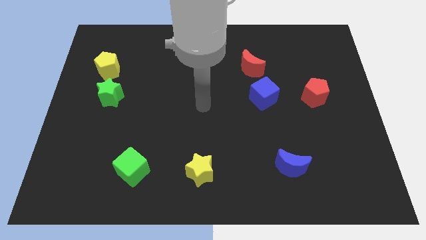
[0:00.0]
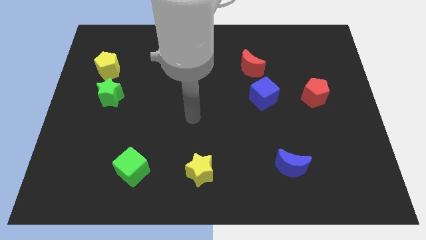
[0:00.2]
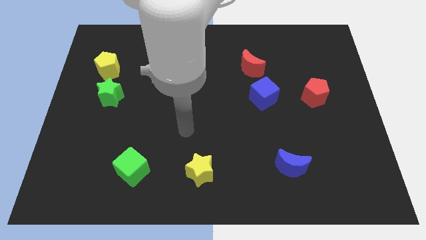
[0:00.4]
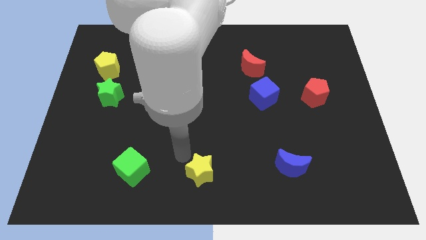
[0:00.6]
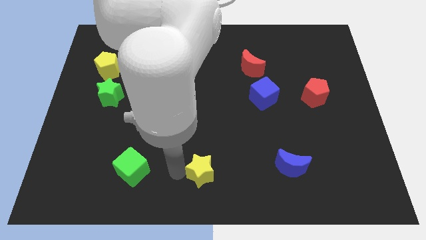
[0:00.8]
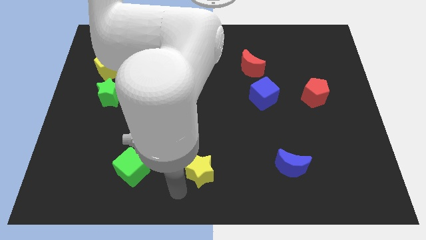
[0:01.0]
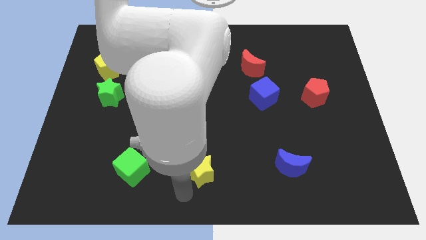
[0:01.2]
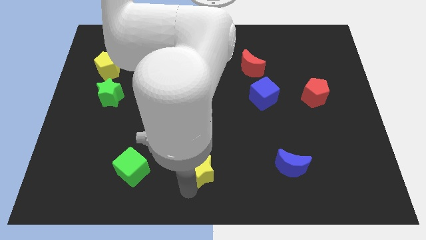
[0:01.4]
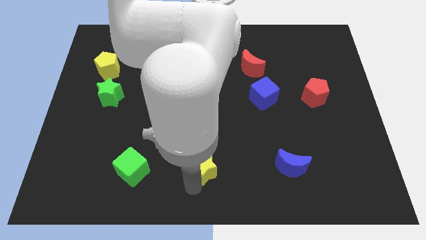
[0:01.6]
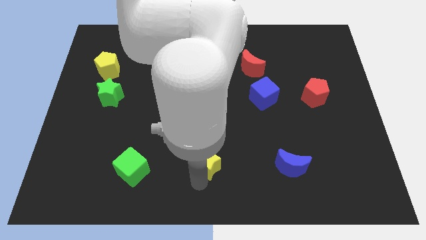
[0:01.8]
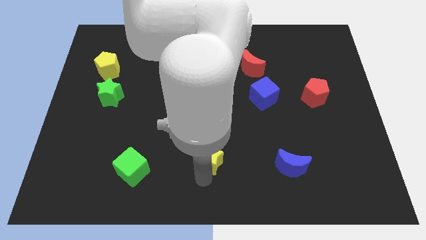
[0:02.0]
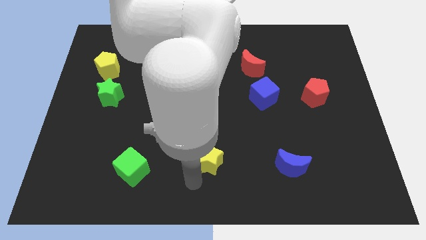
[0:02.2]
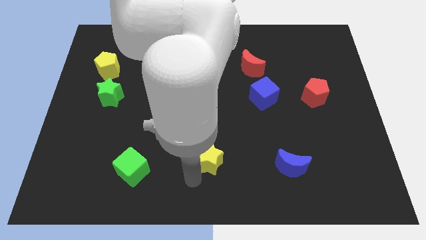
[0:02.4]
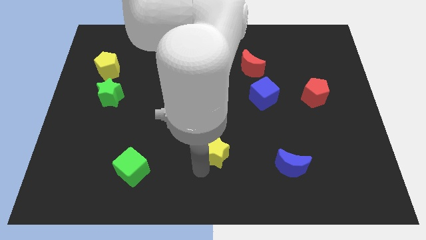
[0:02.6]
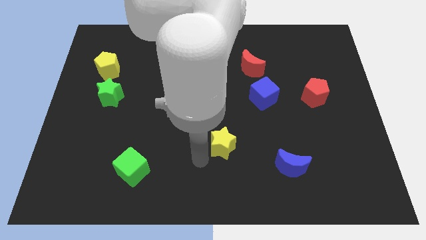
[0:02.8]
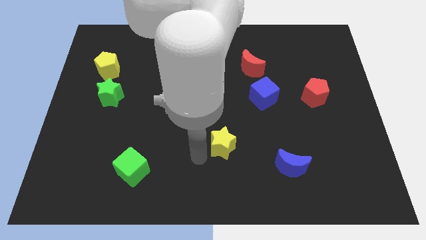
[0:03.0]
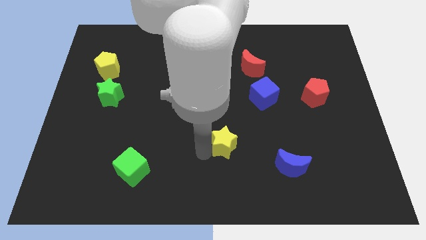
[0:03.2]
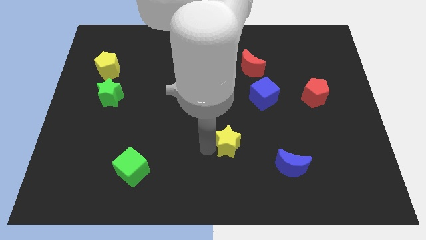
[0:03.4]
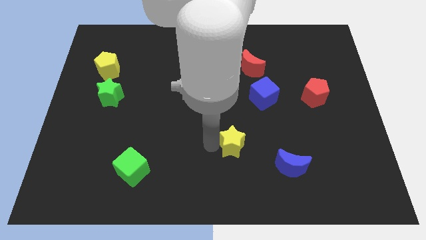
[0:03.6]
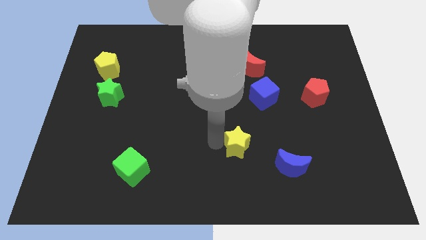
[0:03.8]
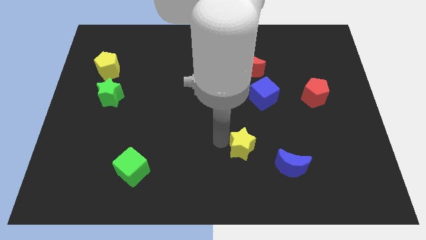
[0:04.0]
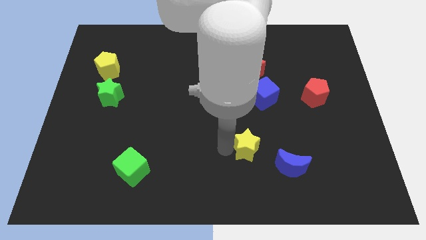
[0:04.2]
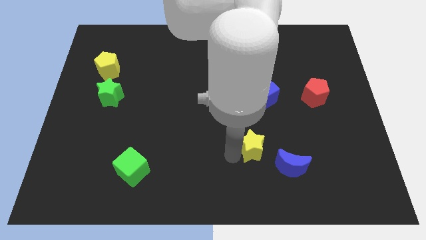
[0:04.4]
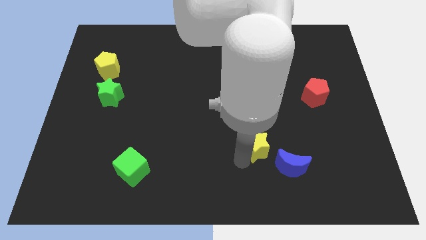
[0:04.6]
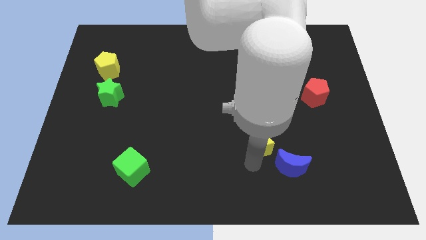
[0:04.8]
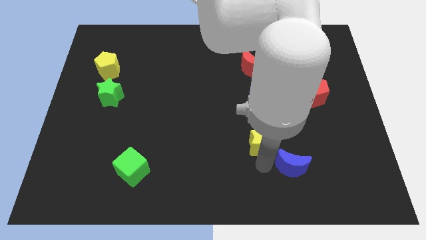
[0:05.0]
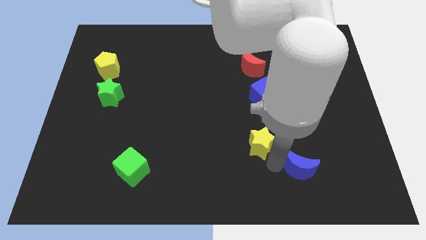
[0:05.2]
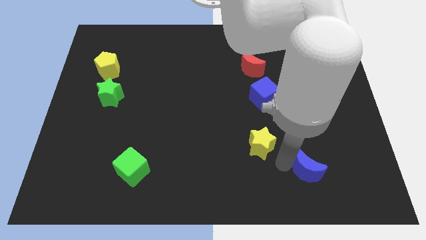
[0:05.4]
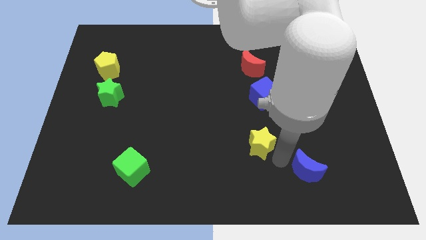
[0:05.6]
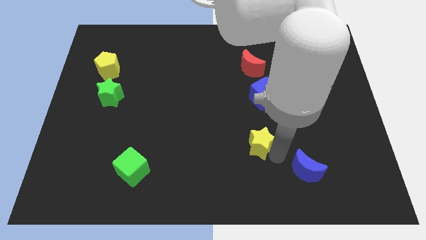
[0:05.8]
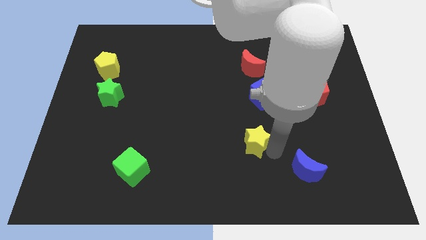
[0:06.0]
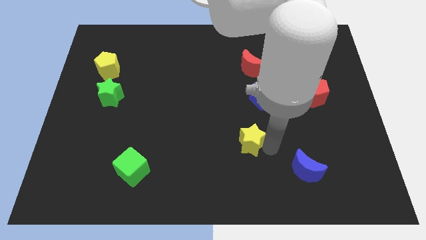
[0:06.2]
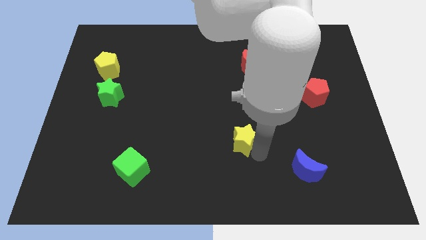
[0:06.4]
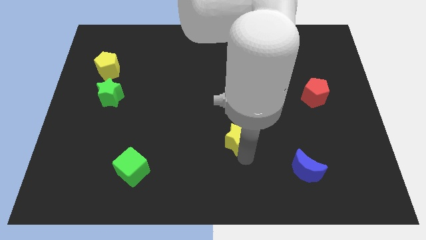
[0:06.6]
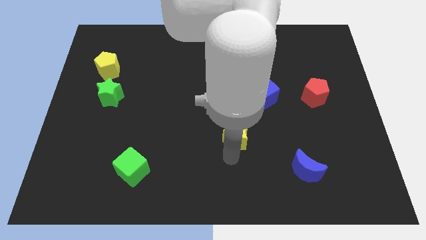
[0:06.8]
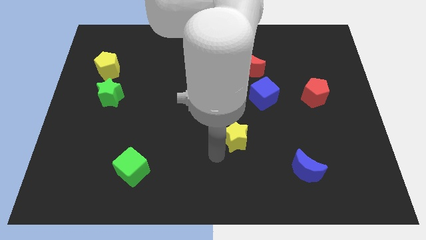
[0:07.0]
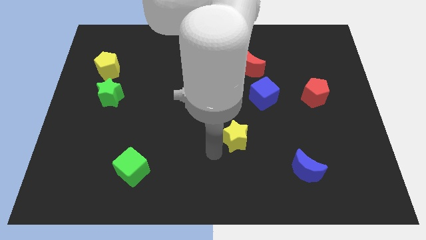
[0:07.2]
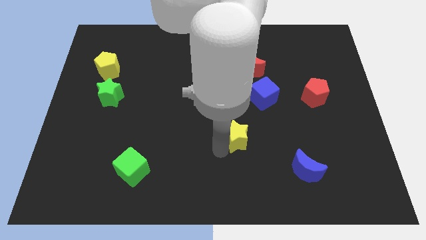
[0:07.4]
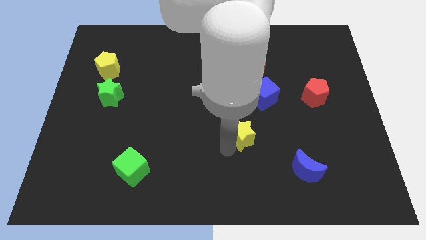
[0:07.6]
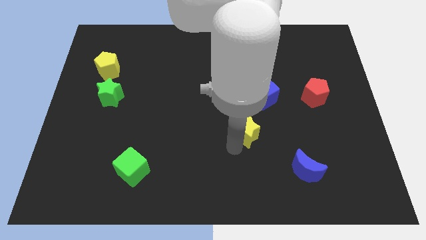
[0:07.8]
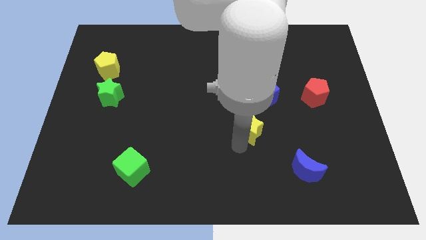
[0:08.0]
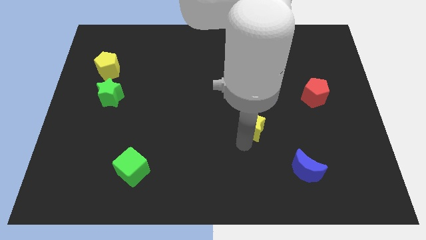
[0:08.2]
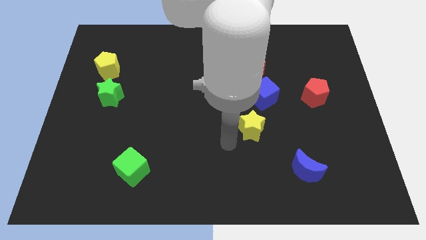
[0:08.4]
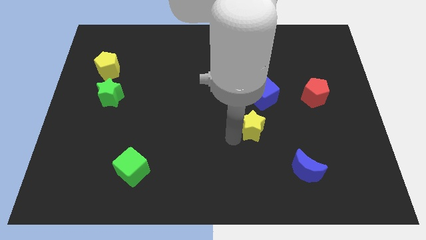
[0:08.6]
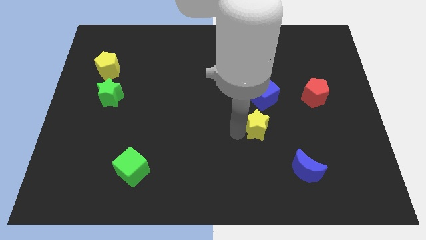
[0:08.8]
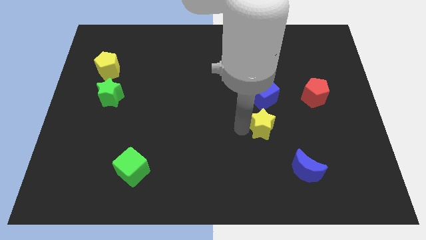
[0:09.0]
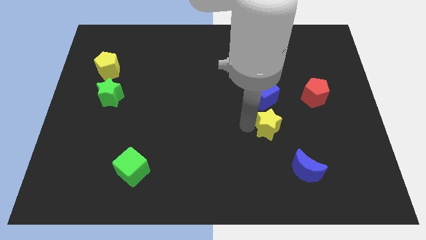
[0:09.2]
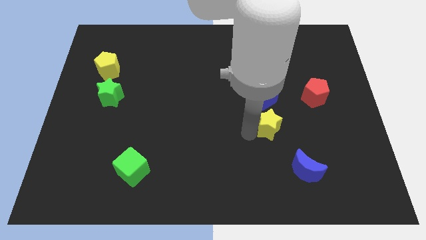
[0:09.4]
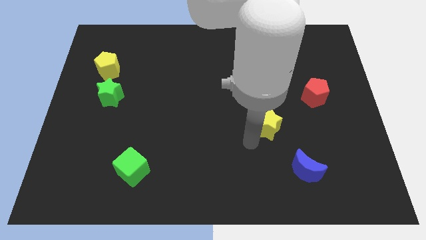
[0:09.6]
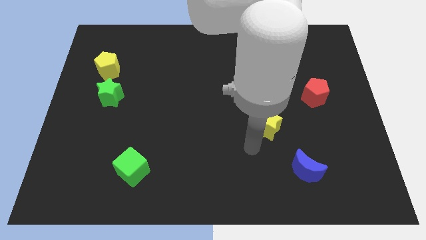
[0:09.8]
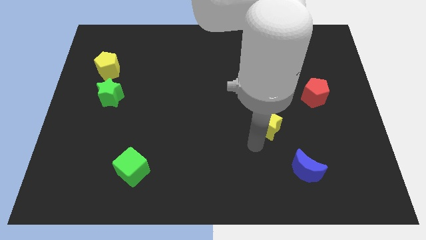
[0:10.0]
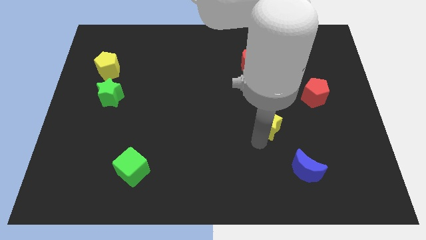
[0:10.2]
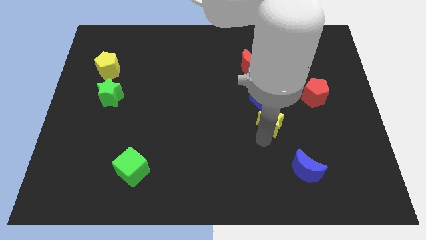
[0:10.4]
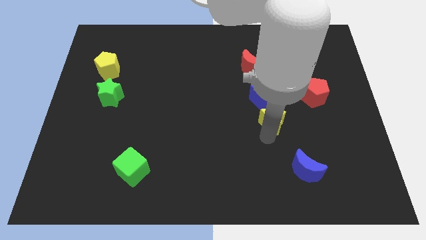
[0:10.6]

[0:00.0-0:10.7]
move the yellow star diagonally upwards and to the right

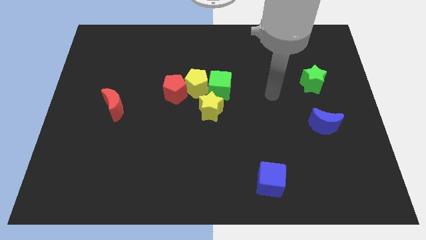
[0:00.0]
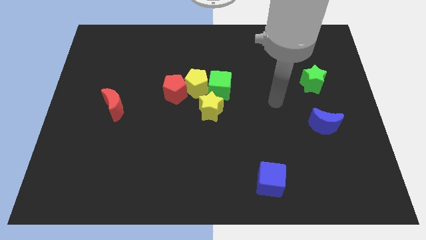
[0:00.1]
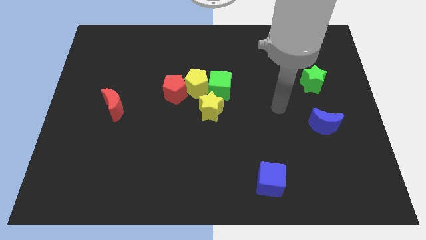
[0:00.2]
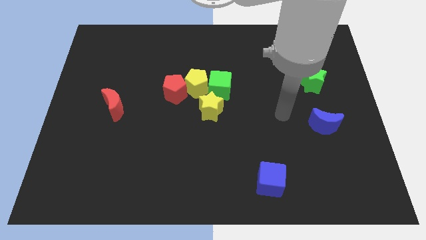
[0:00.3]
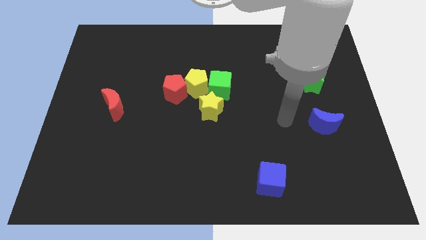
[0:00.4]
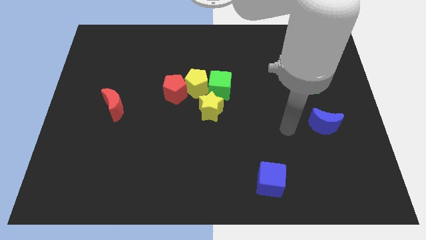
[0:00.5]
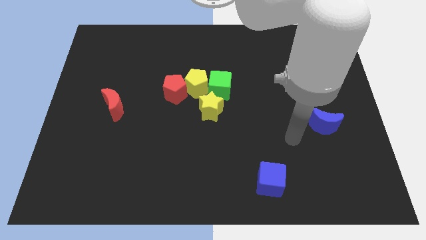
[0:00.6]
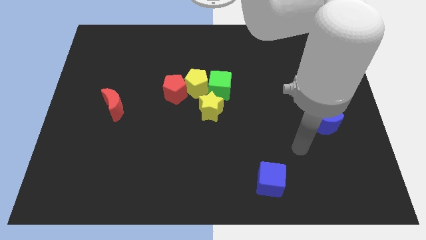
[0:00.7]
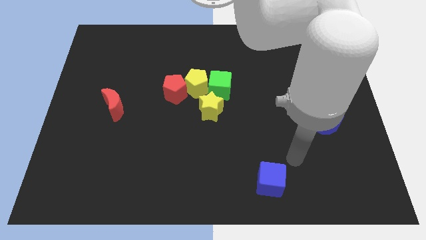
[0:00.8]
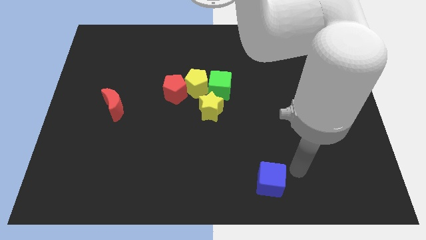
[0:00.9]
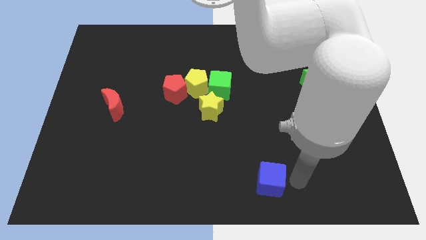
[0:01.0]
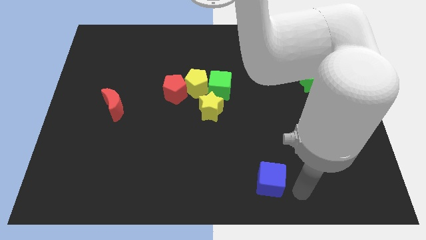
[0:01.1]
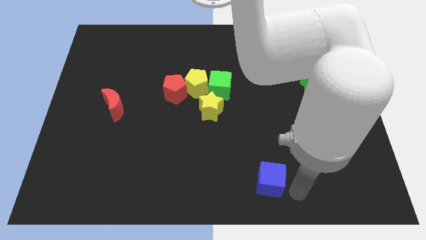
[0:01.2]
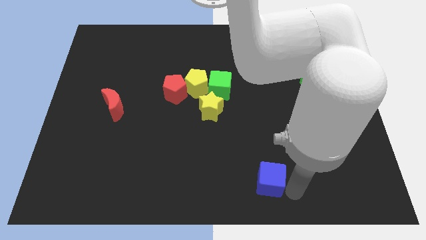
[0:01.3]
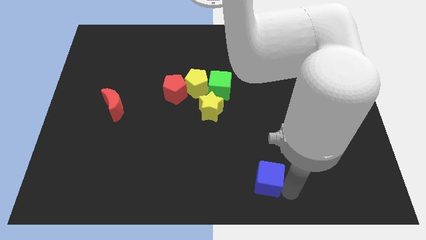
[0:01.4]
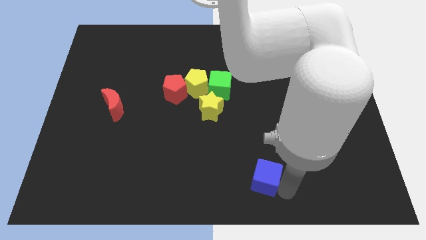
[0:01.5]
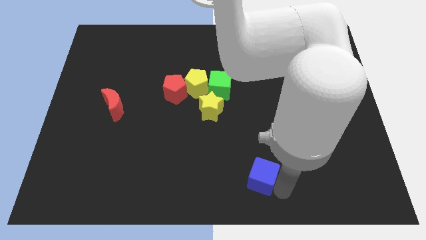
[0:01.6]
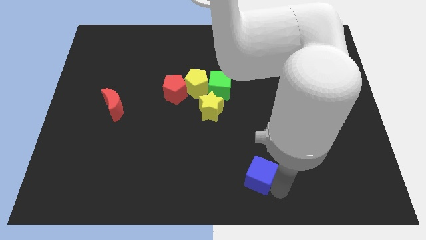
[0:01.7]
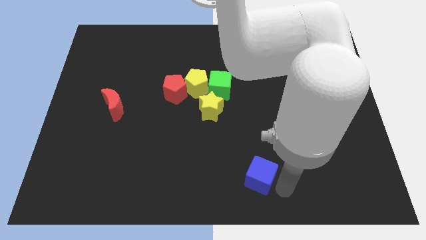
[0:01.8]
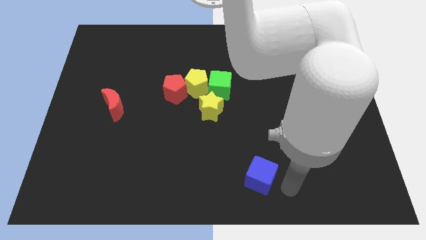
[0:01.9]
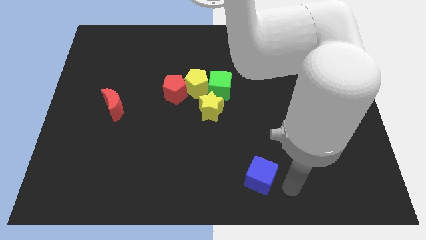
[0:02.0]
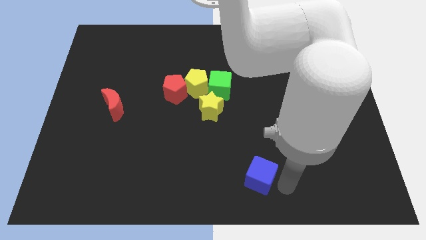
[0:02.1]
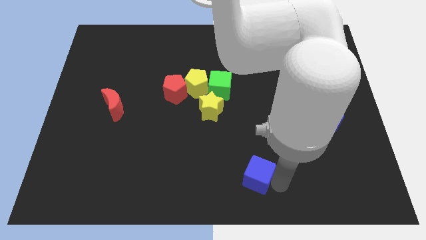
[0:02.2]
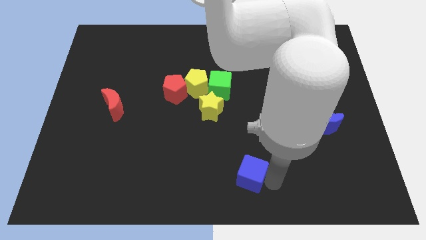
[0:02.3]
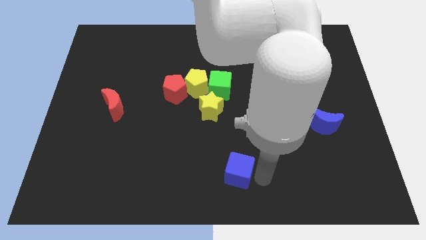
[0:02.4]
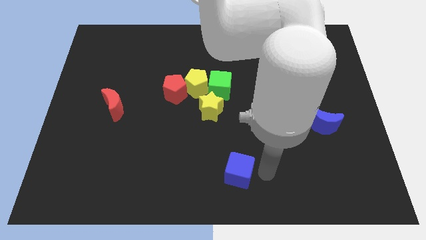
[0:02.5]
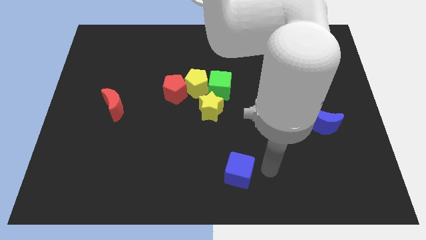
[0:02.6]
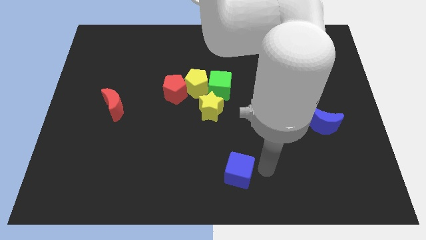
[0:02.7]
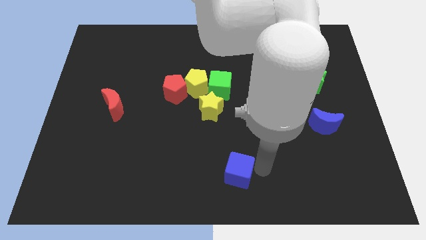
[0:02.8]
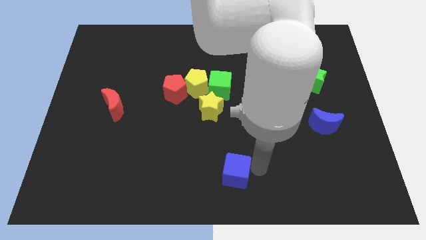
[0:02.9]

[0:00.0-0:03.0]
slide the blue cube somewhat to the left
